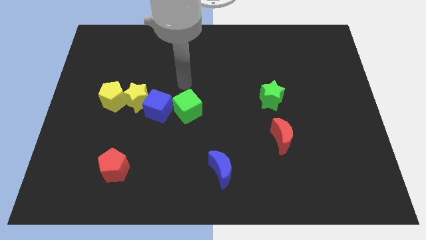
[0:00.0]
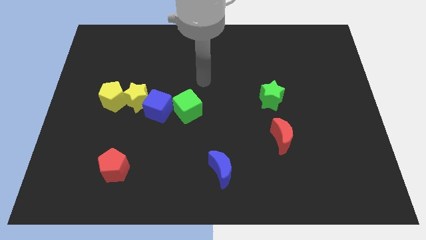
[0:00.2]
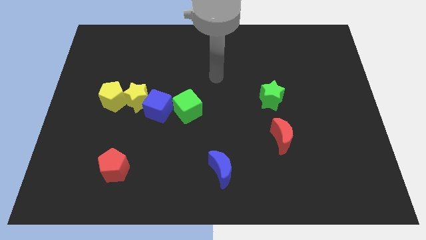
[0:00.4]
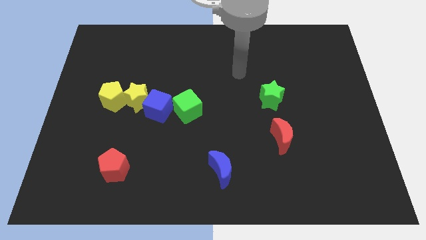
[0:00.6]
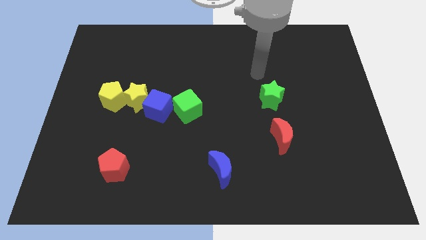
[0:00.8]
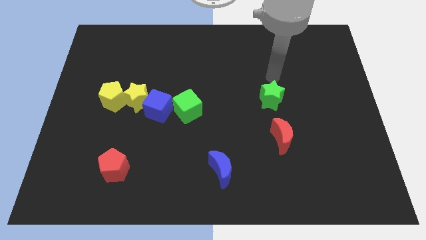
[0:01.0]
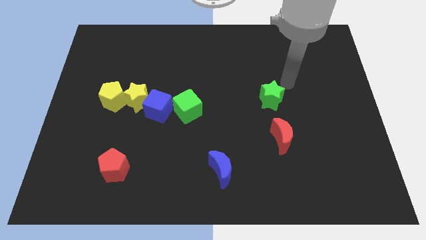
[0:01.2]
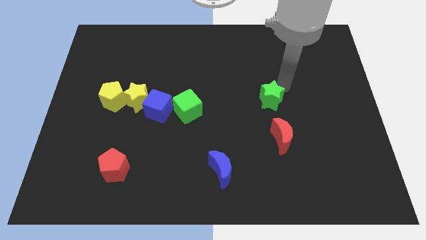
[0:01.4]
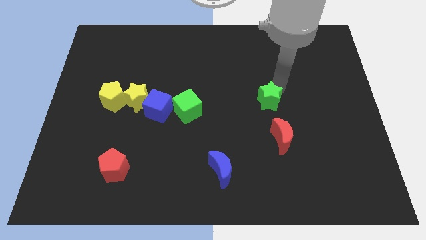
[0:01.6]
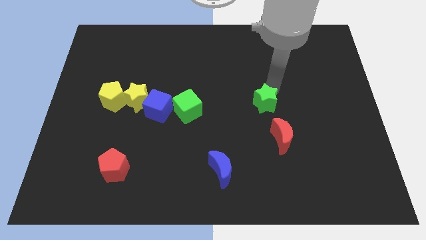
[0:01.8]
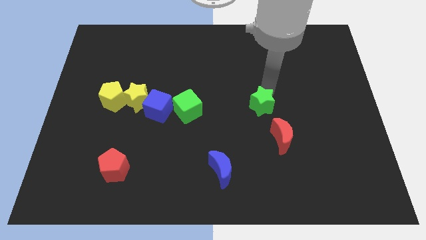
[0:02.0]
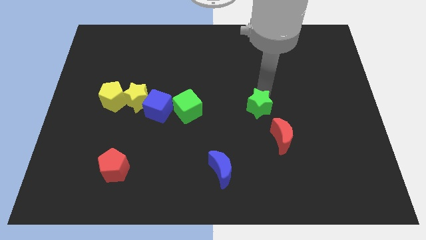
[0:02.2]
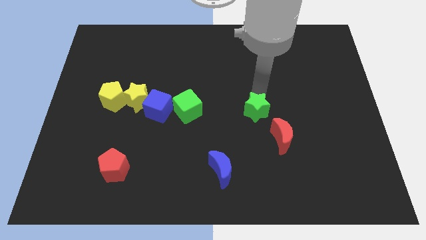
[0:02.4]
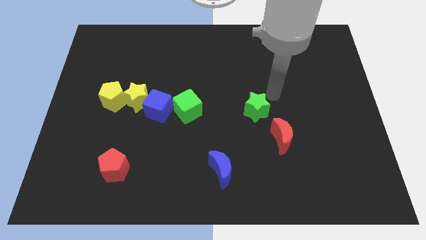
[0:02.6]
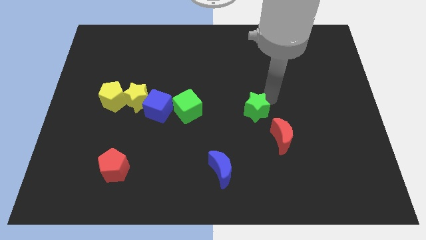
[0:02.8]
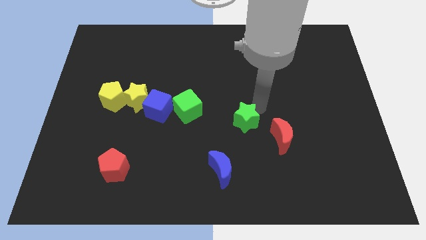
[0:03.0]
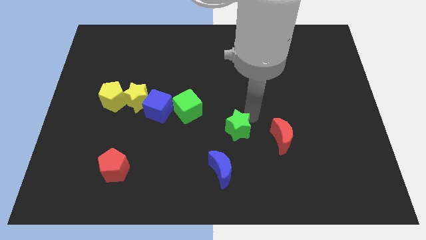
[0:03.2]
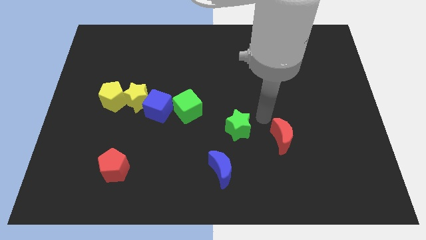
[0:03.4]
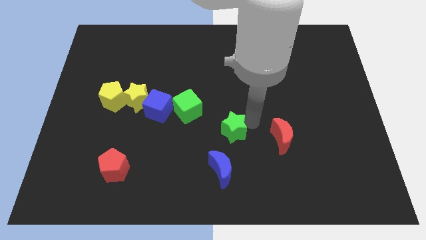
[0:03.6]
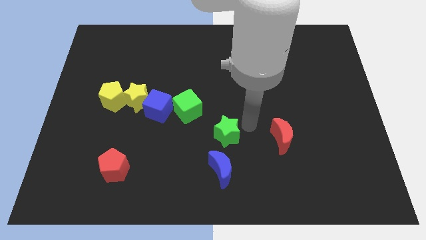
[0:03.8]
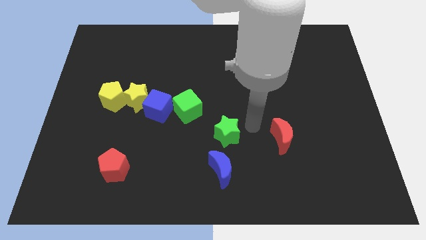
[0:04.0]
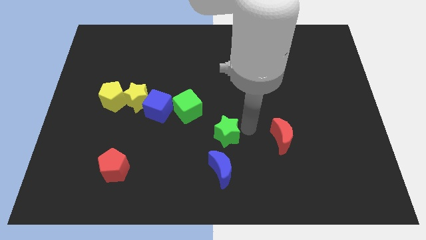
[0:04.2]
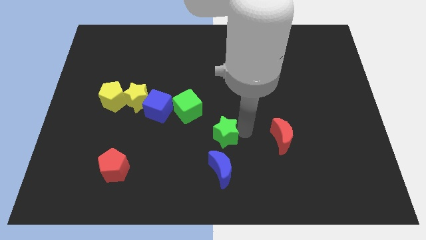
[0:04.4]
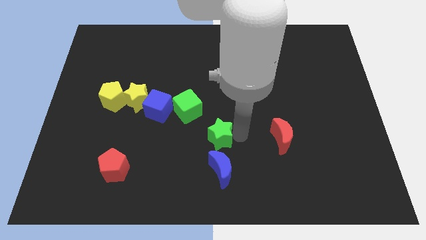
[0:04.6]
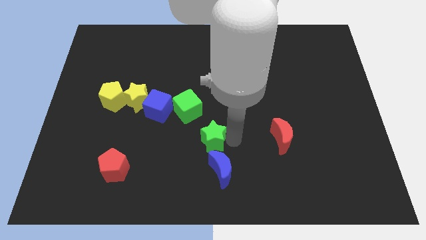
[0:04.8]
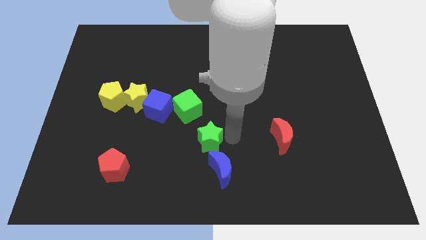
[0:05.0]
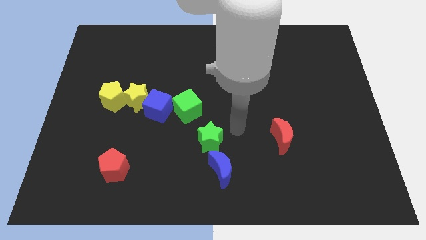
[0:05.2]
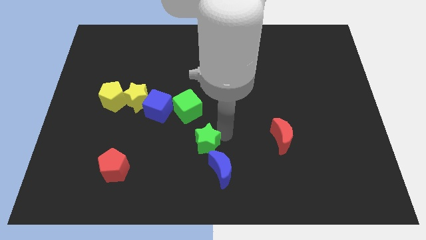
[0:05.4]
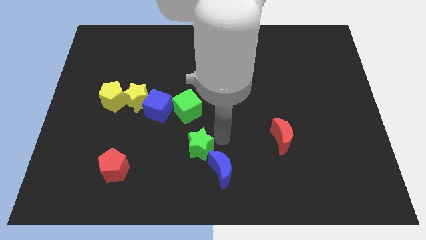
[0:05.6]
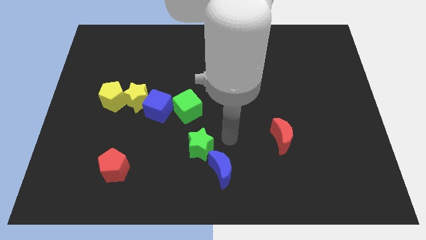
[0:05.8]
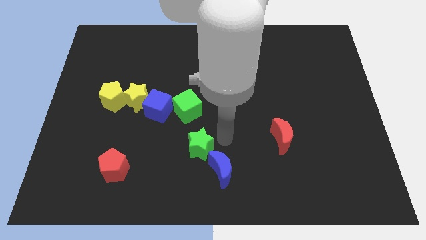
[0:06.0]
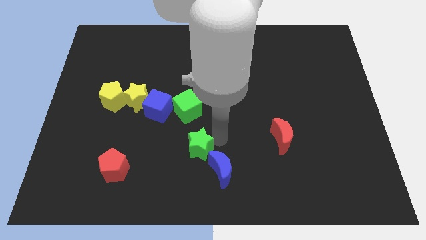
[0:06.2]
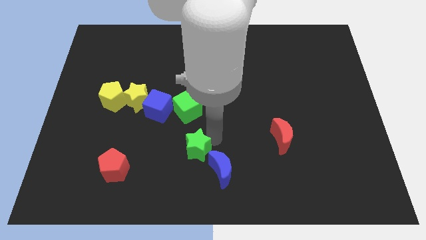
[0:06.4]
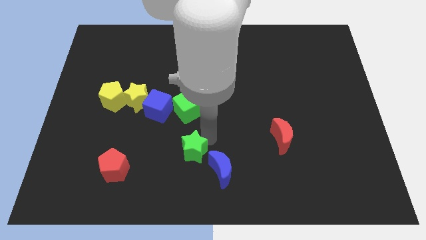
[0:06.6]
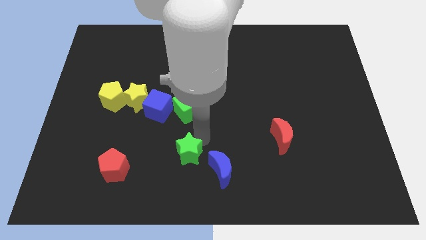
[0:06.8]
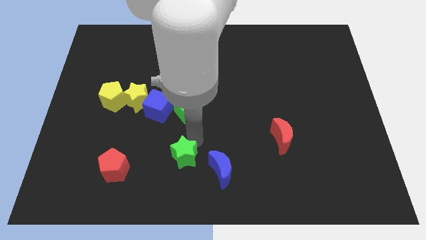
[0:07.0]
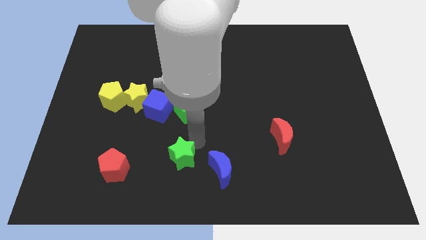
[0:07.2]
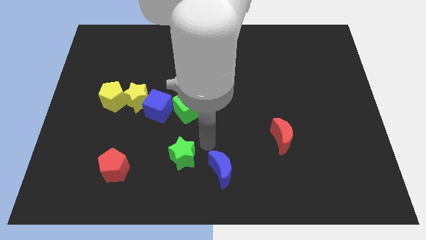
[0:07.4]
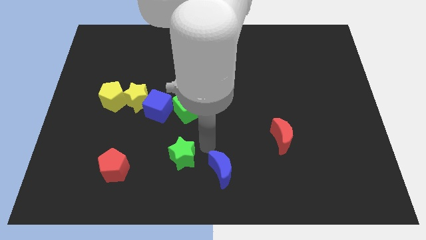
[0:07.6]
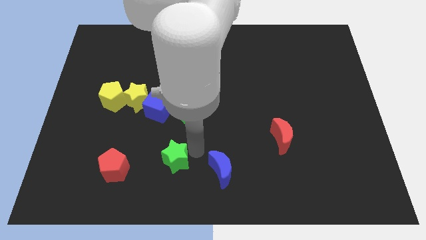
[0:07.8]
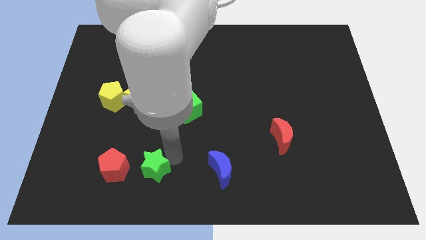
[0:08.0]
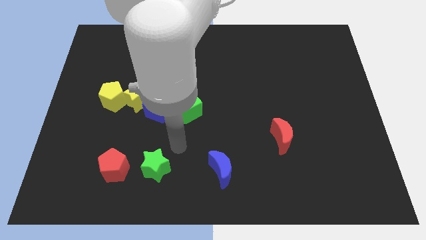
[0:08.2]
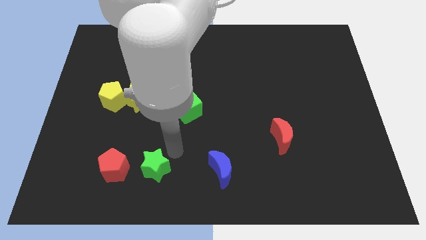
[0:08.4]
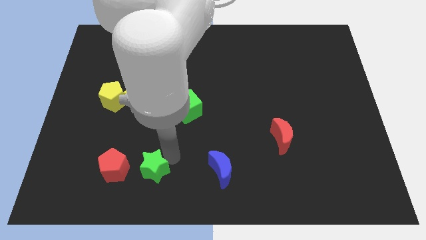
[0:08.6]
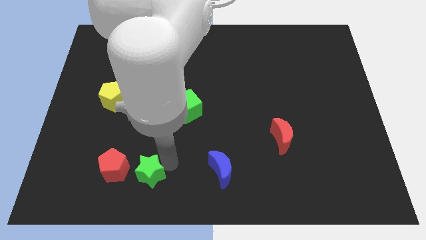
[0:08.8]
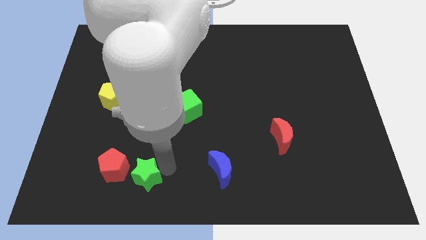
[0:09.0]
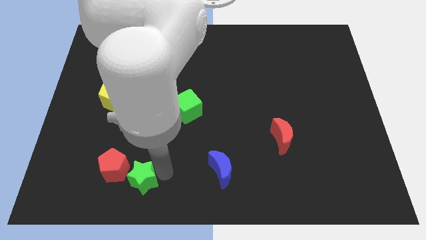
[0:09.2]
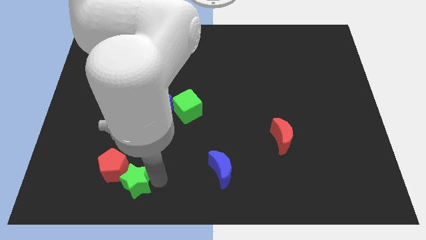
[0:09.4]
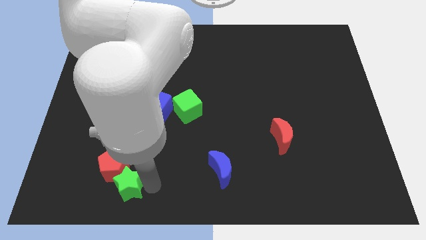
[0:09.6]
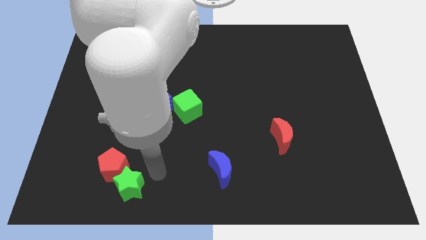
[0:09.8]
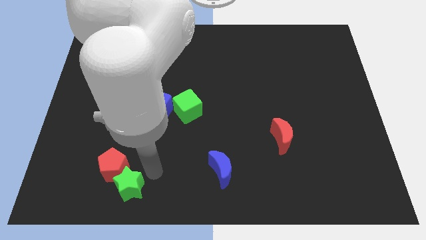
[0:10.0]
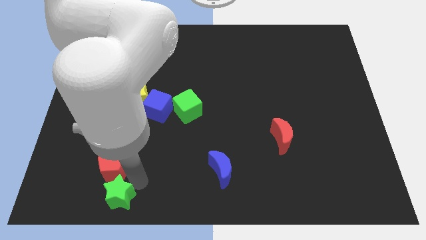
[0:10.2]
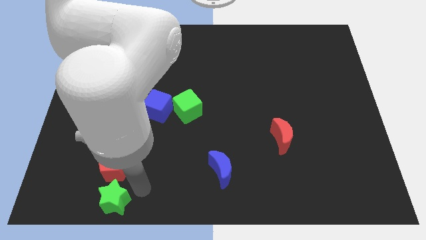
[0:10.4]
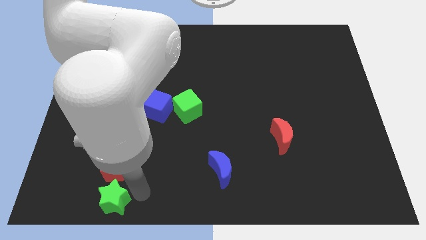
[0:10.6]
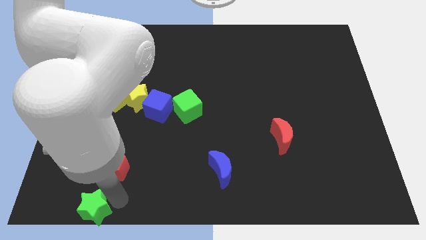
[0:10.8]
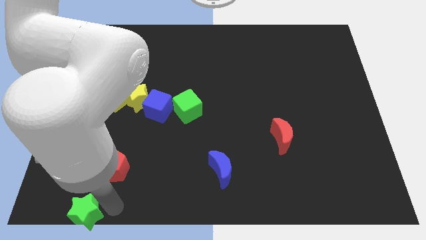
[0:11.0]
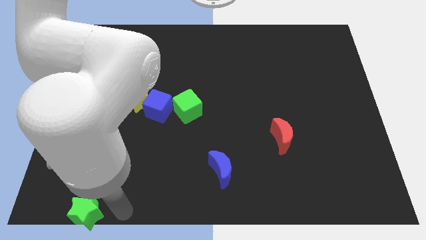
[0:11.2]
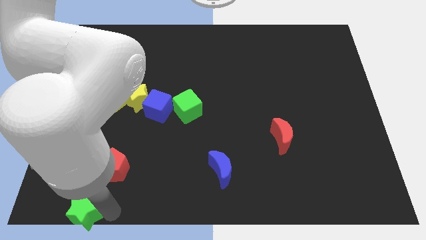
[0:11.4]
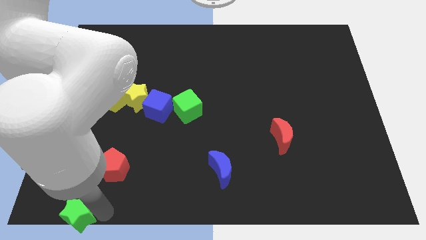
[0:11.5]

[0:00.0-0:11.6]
slide the green star to the lower left corner
